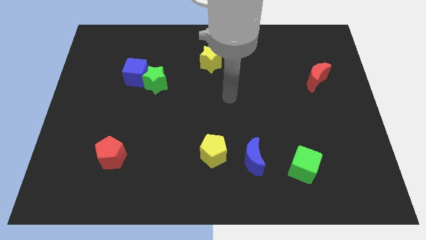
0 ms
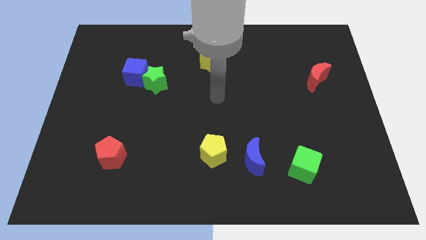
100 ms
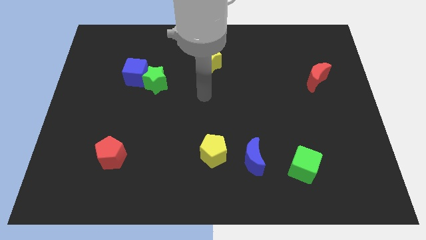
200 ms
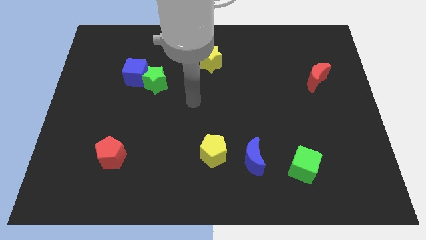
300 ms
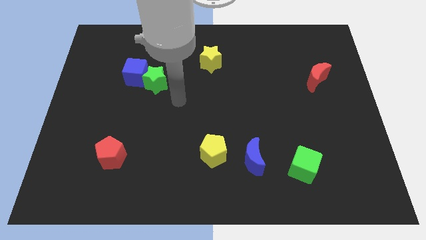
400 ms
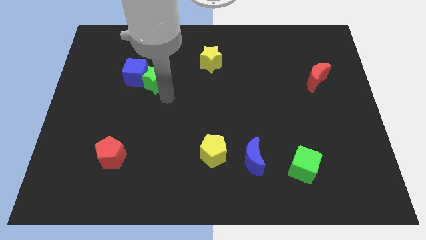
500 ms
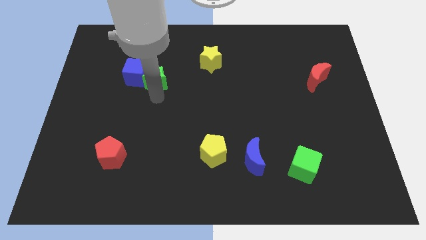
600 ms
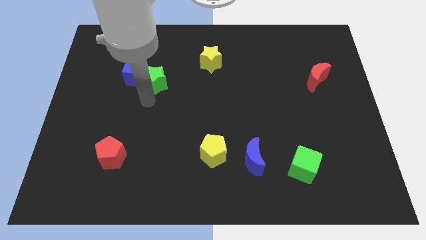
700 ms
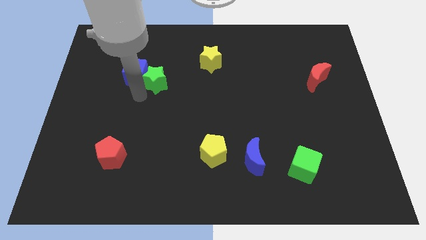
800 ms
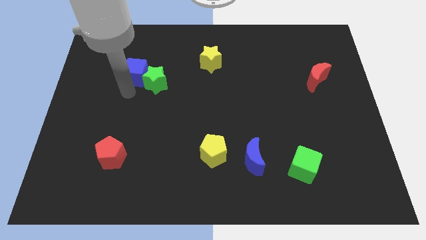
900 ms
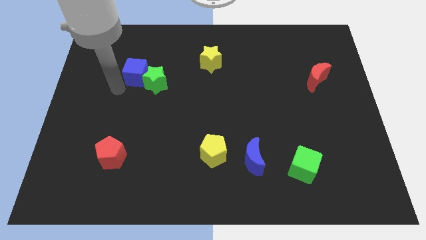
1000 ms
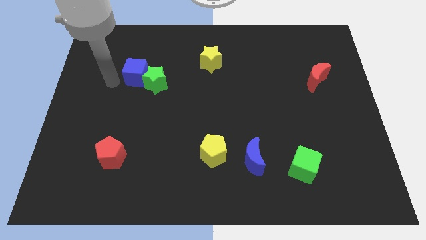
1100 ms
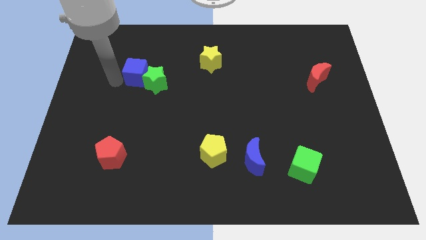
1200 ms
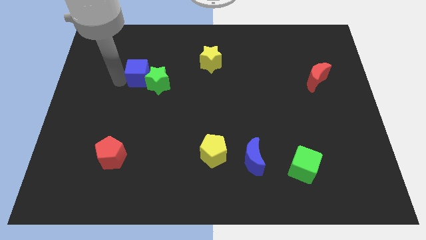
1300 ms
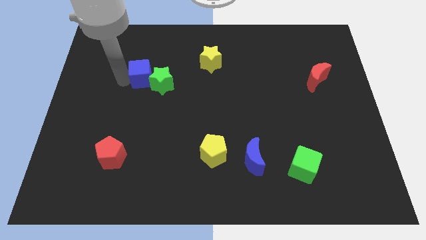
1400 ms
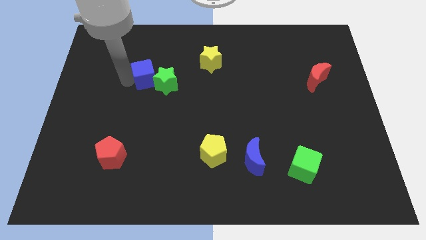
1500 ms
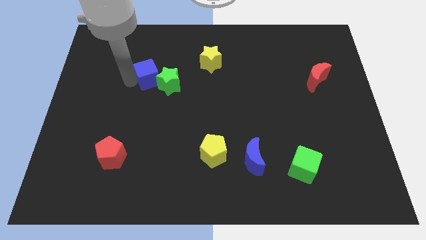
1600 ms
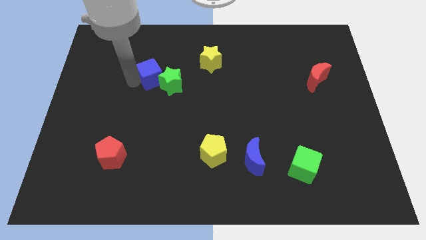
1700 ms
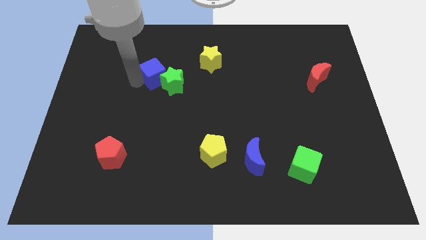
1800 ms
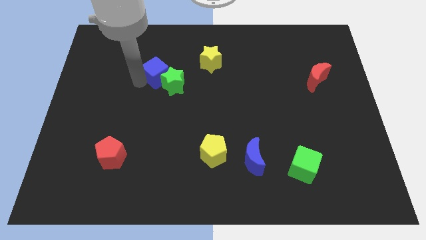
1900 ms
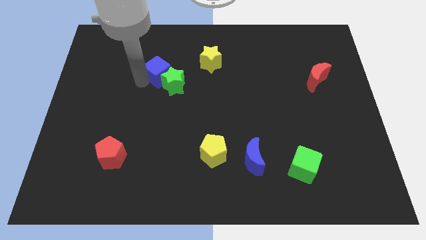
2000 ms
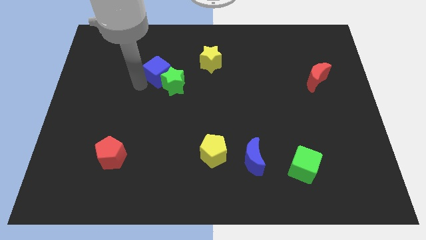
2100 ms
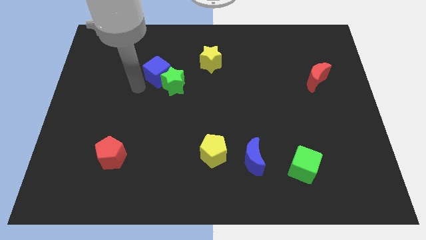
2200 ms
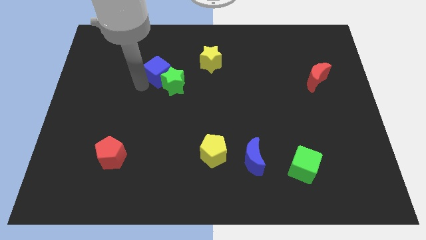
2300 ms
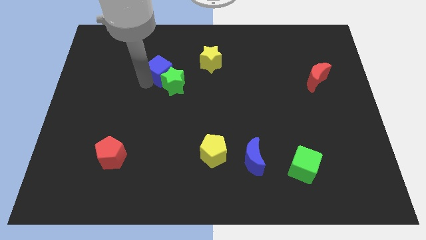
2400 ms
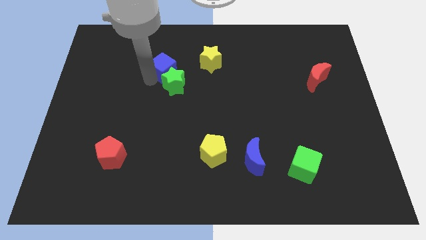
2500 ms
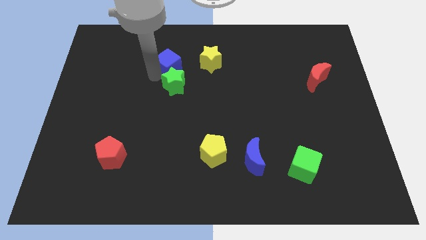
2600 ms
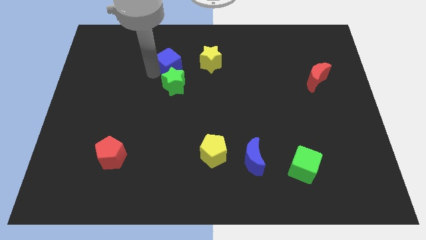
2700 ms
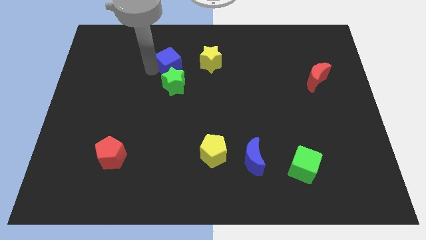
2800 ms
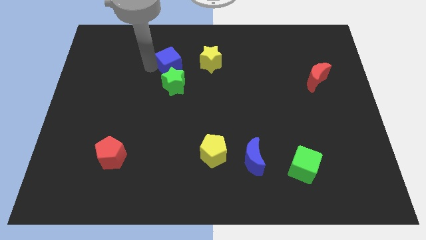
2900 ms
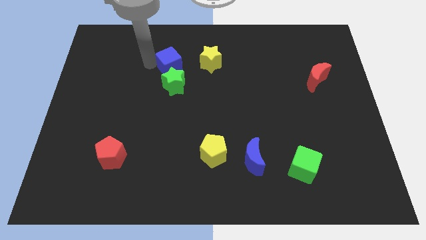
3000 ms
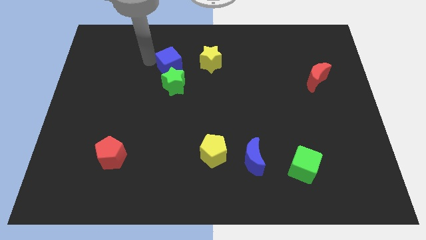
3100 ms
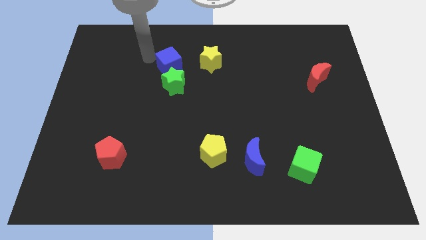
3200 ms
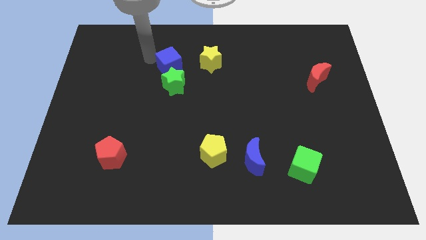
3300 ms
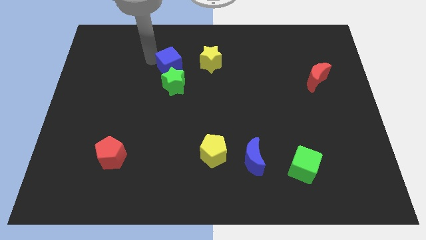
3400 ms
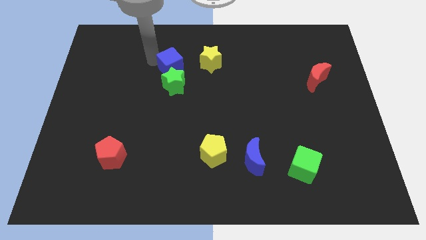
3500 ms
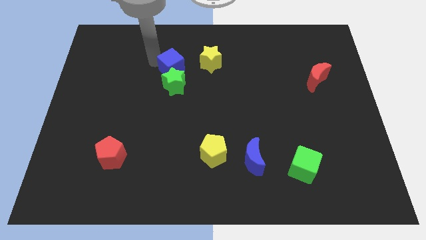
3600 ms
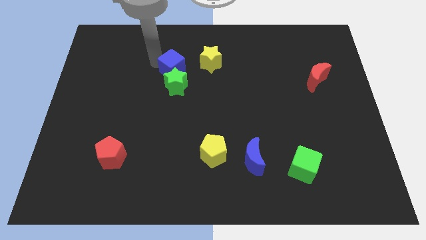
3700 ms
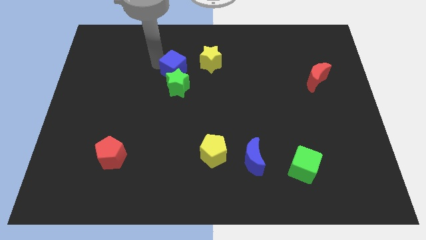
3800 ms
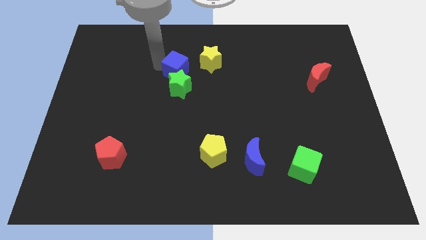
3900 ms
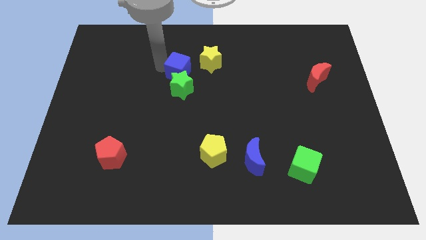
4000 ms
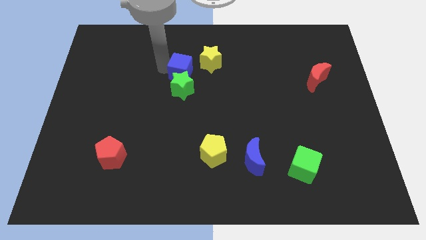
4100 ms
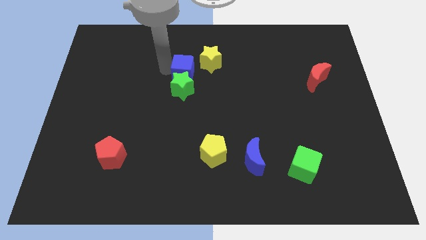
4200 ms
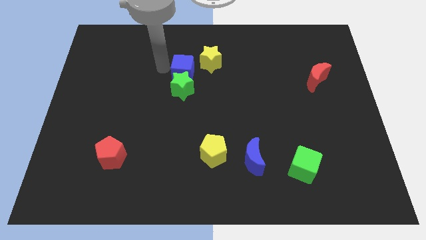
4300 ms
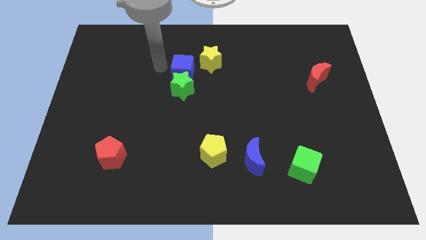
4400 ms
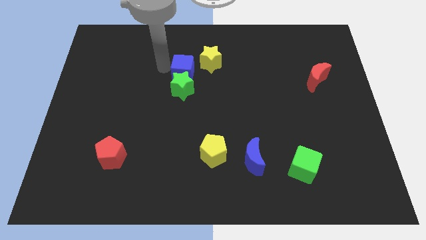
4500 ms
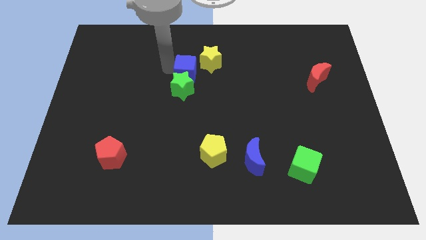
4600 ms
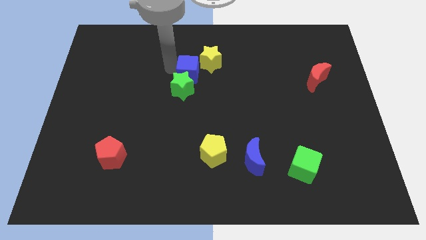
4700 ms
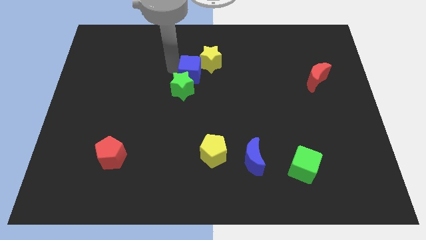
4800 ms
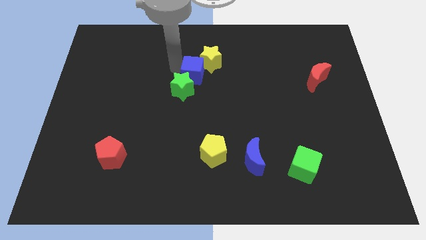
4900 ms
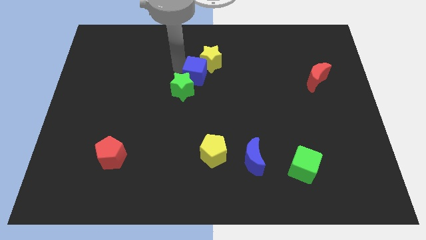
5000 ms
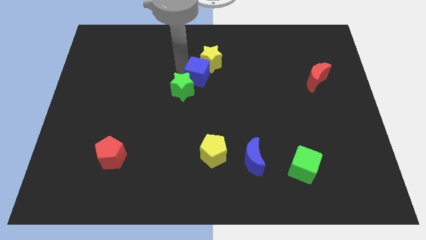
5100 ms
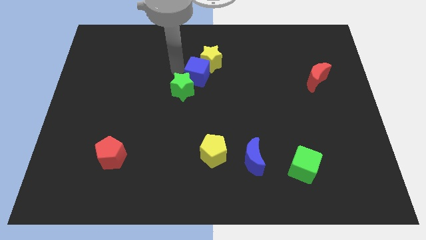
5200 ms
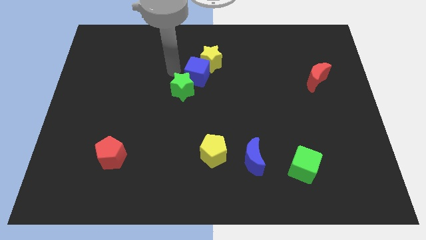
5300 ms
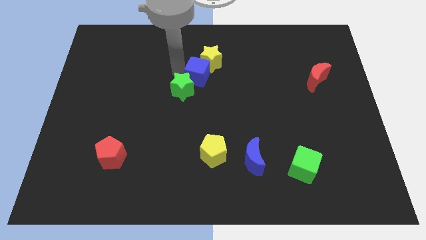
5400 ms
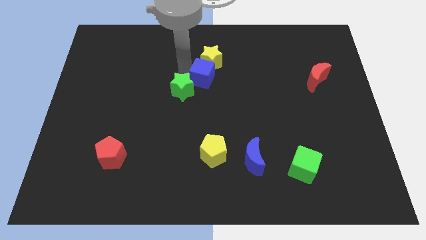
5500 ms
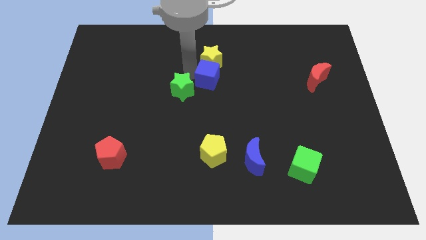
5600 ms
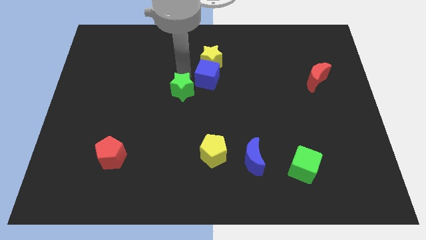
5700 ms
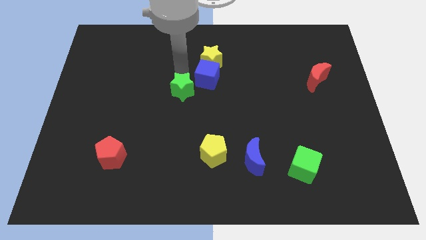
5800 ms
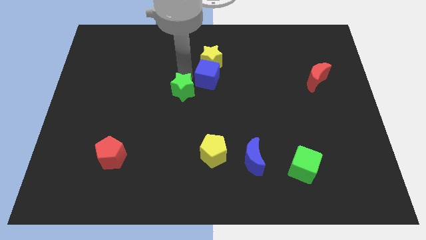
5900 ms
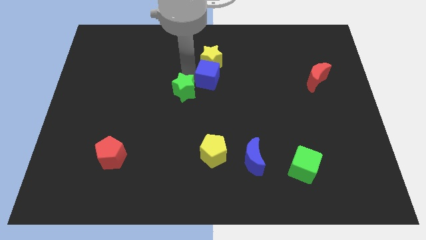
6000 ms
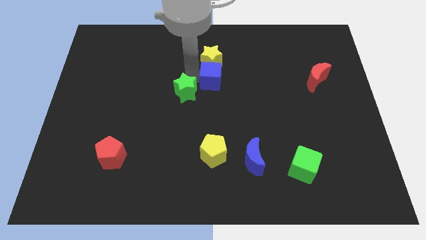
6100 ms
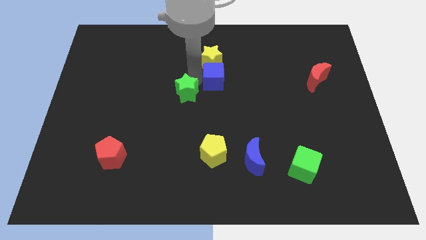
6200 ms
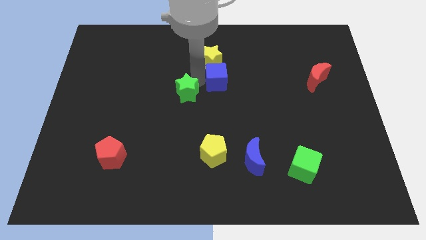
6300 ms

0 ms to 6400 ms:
push the blue cube to the right

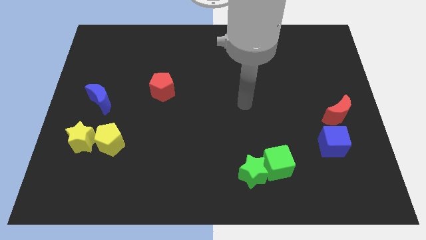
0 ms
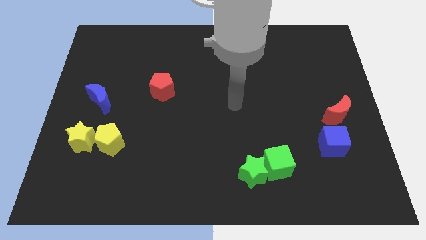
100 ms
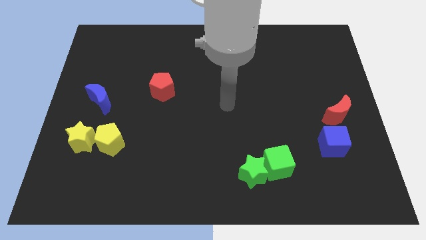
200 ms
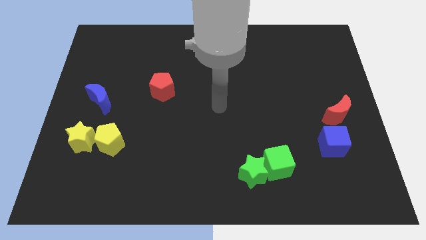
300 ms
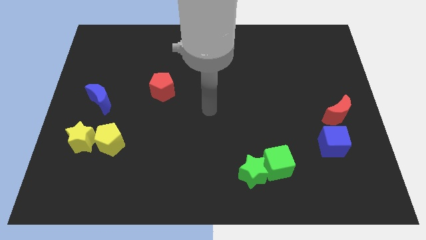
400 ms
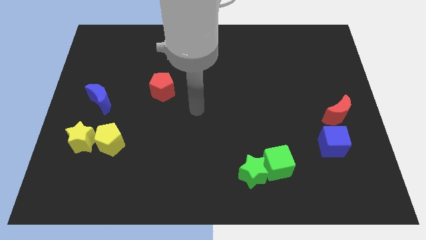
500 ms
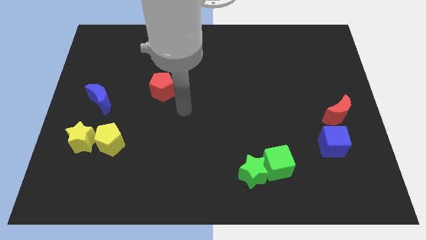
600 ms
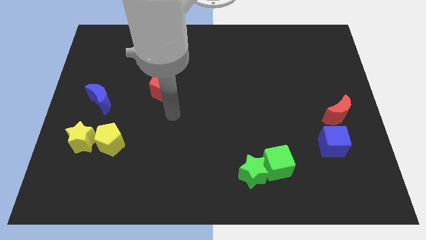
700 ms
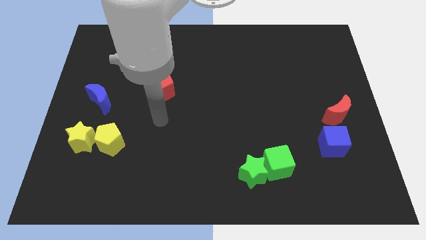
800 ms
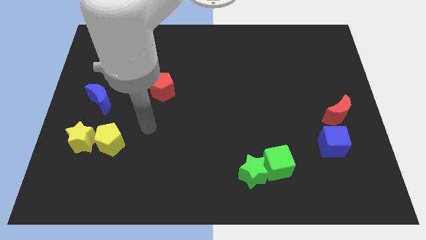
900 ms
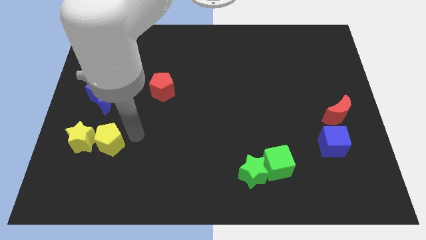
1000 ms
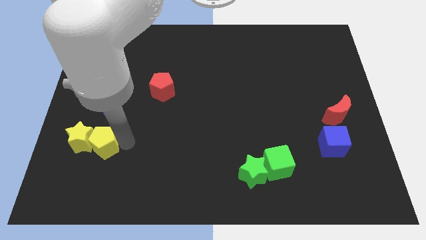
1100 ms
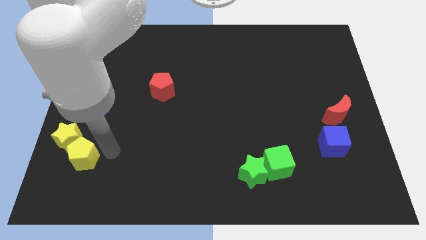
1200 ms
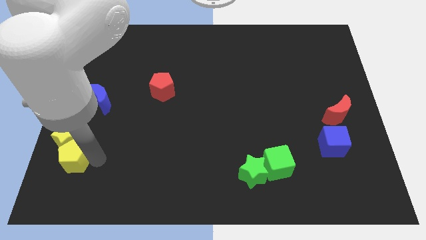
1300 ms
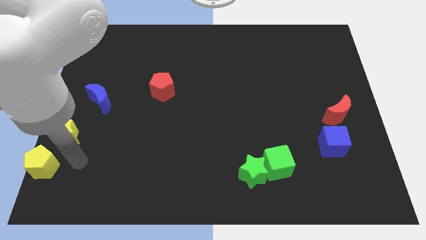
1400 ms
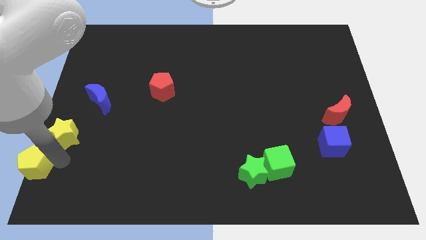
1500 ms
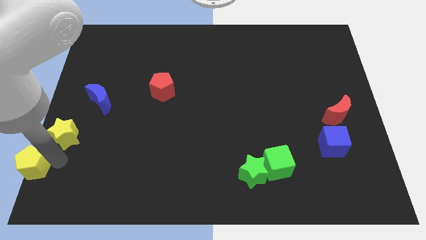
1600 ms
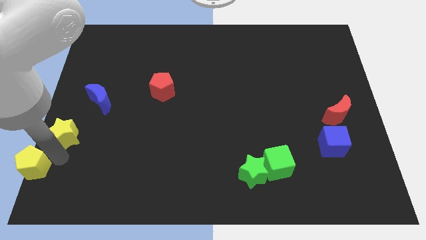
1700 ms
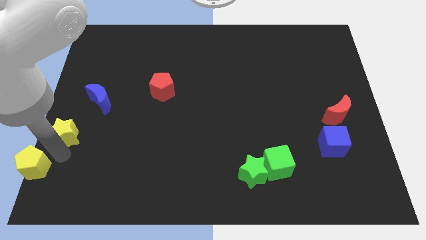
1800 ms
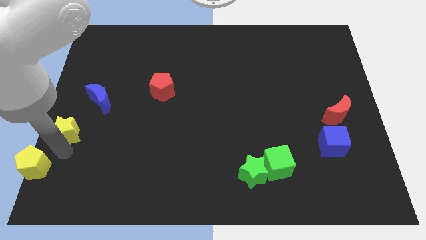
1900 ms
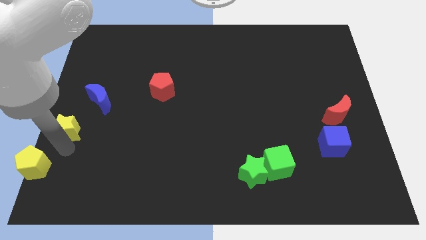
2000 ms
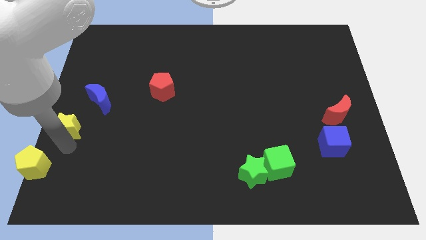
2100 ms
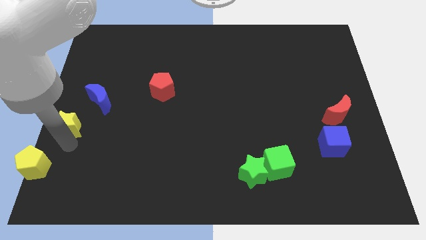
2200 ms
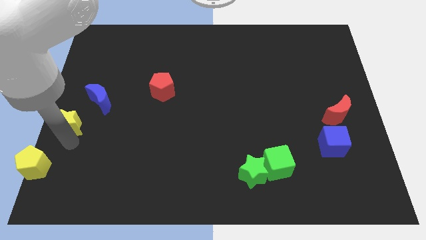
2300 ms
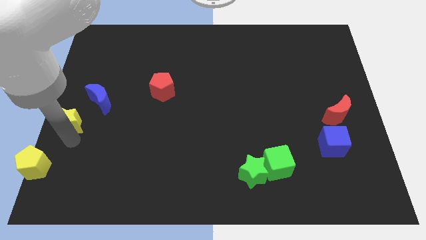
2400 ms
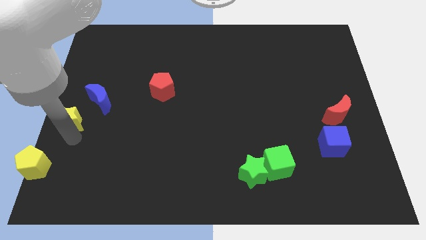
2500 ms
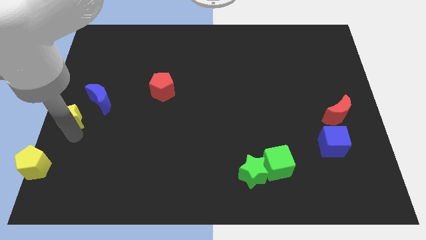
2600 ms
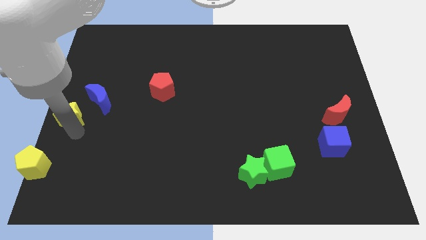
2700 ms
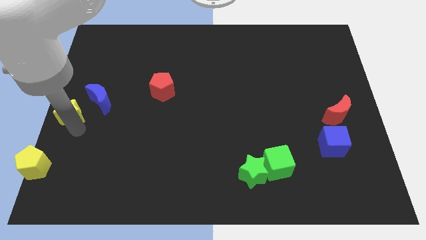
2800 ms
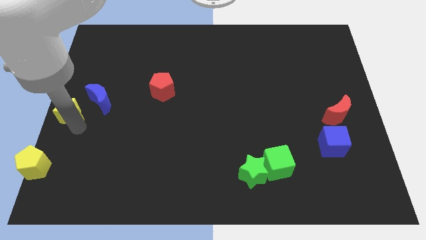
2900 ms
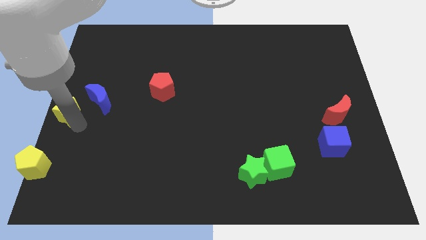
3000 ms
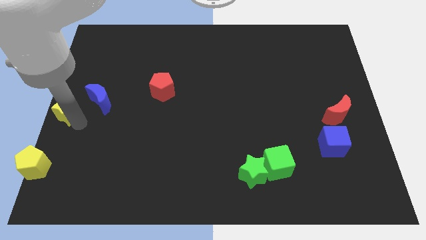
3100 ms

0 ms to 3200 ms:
move the yellow star up slightly
